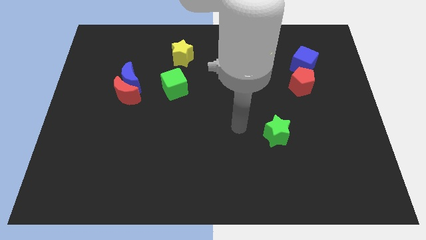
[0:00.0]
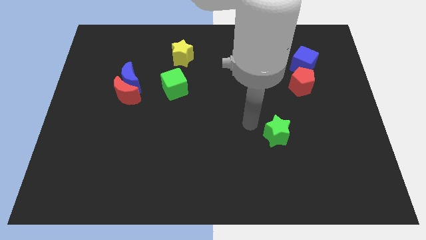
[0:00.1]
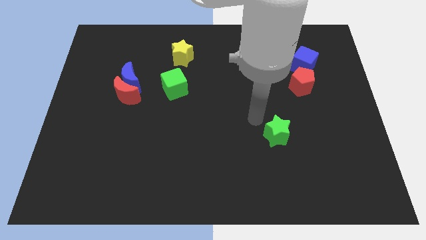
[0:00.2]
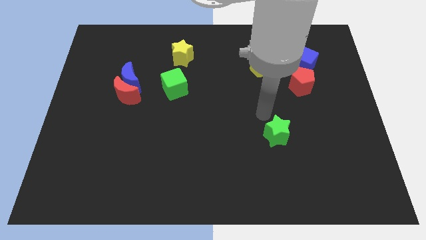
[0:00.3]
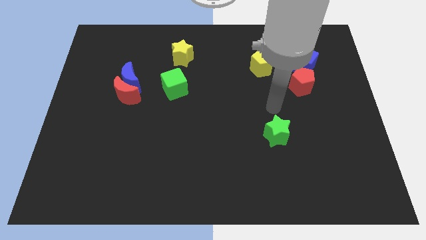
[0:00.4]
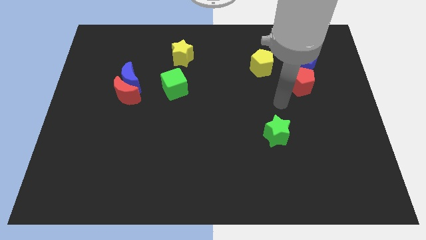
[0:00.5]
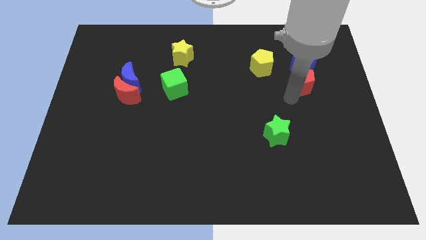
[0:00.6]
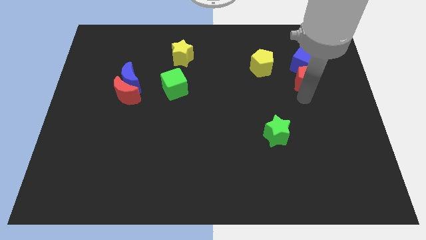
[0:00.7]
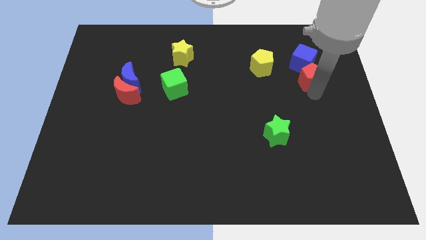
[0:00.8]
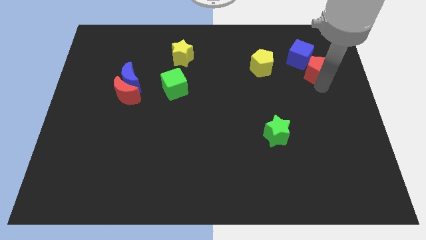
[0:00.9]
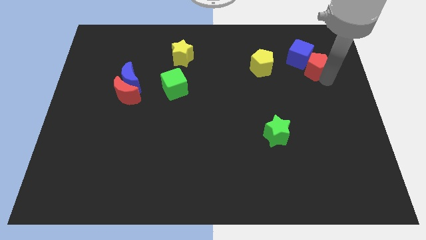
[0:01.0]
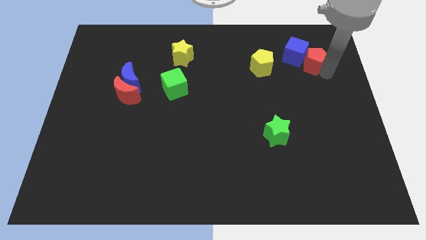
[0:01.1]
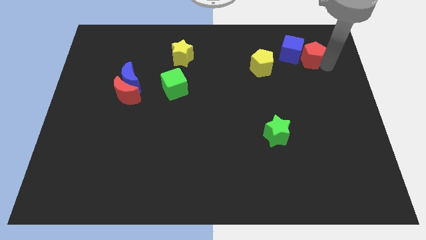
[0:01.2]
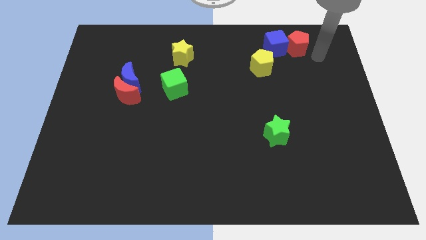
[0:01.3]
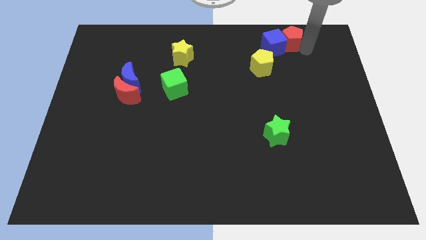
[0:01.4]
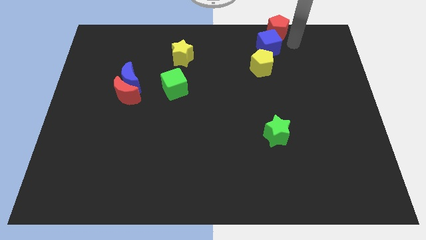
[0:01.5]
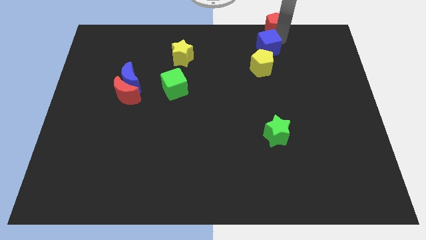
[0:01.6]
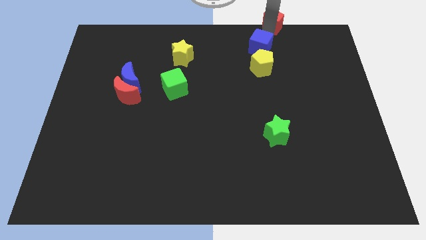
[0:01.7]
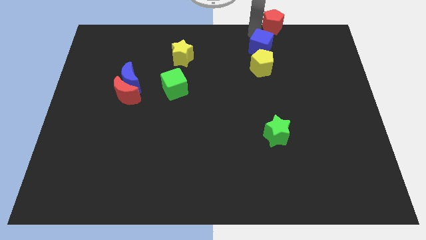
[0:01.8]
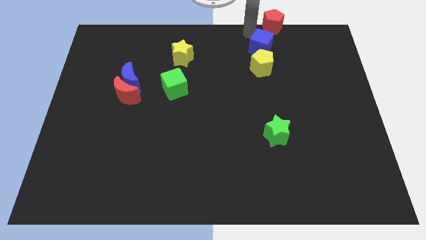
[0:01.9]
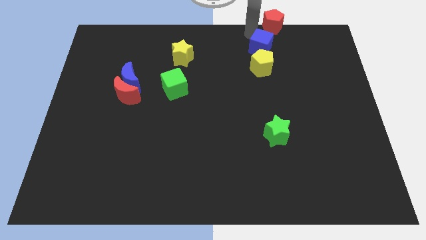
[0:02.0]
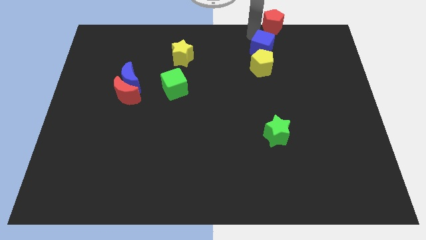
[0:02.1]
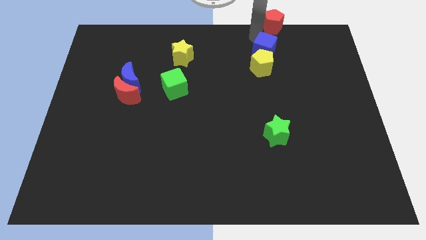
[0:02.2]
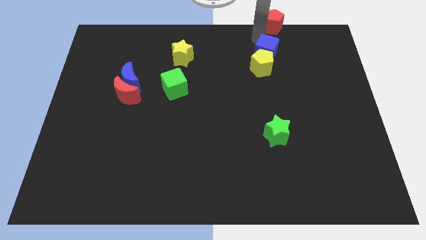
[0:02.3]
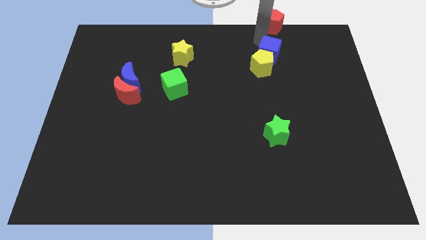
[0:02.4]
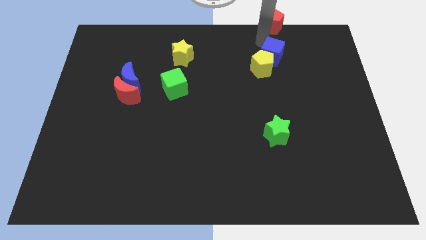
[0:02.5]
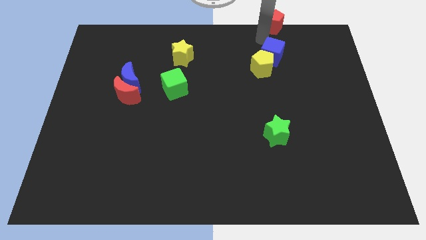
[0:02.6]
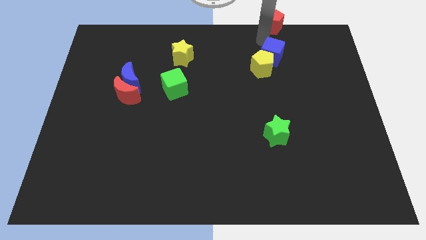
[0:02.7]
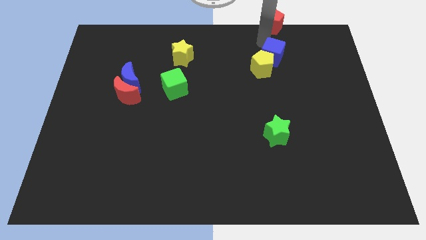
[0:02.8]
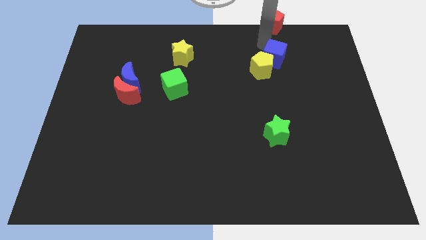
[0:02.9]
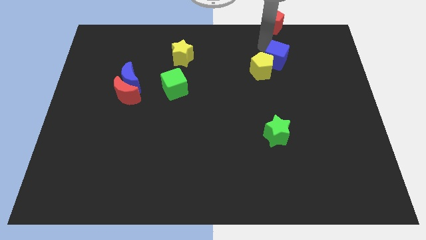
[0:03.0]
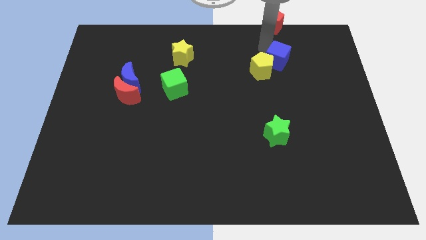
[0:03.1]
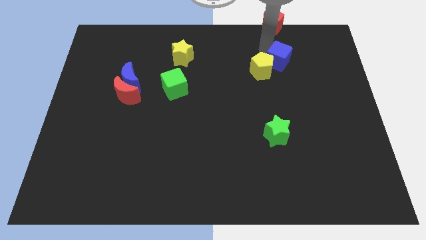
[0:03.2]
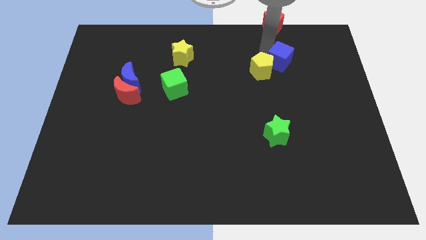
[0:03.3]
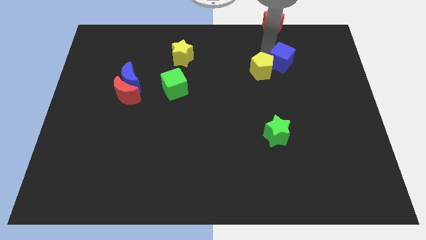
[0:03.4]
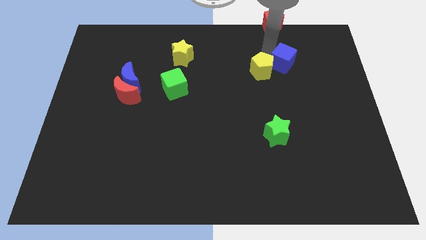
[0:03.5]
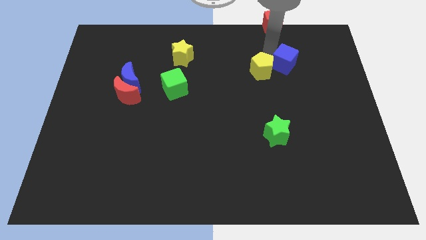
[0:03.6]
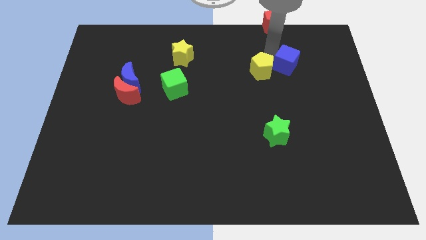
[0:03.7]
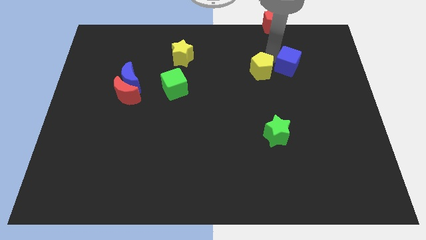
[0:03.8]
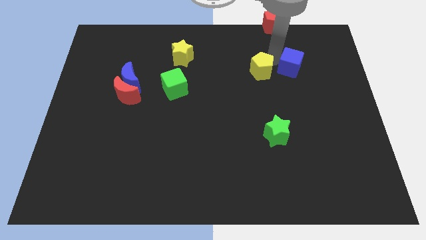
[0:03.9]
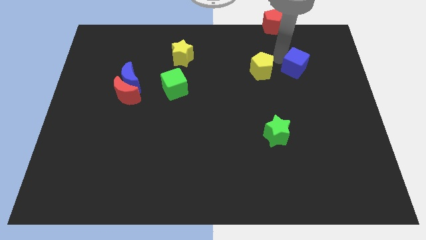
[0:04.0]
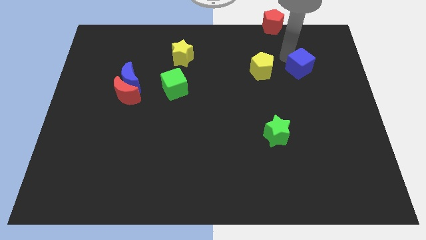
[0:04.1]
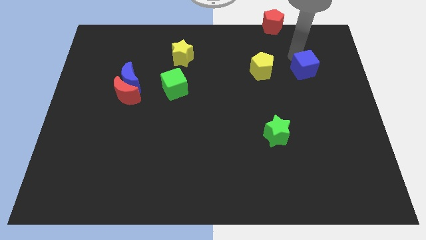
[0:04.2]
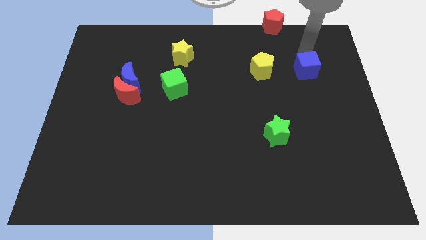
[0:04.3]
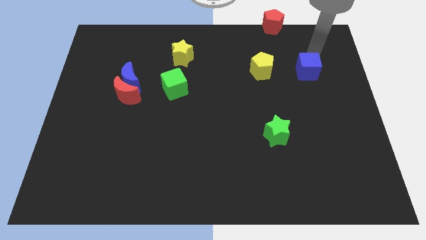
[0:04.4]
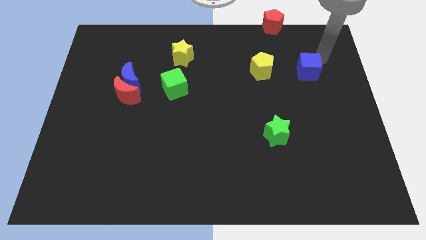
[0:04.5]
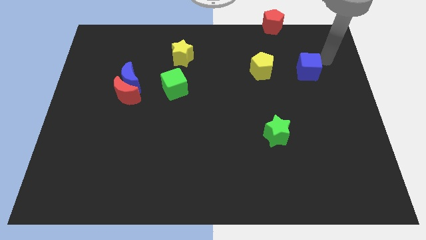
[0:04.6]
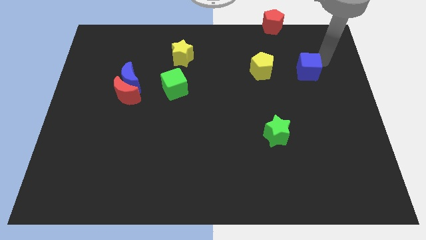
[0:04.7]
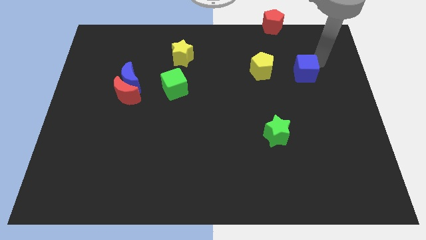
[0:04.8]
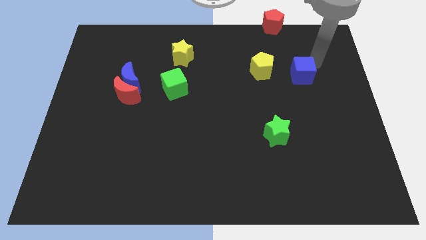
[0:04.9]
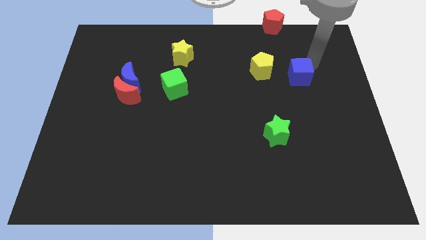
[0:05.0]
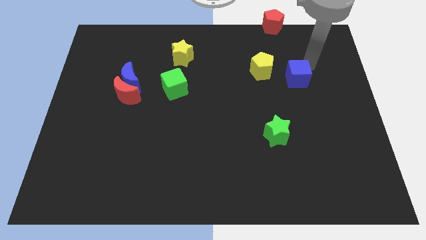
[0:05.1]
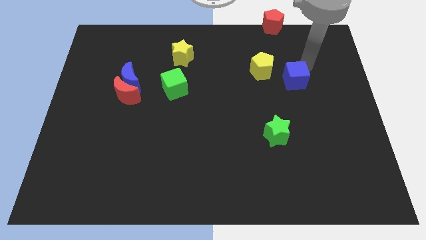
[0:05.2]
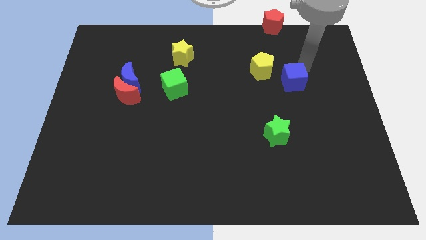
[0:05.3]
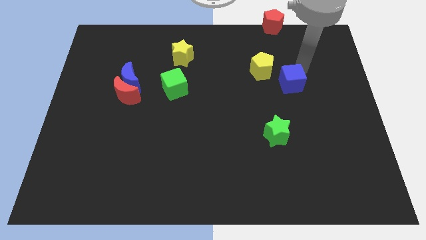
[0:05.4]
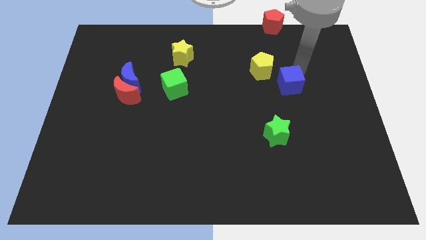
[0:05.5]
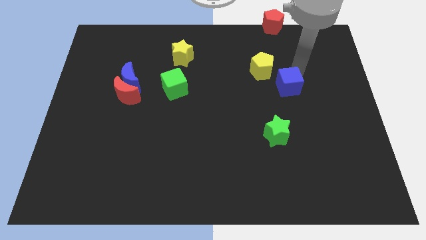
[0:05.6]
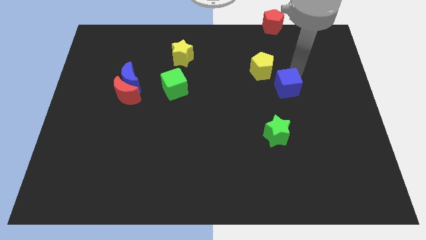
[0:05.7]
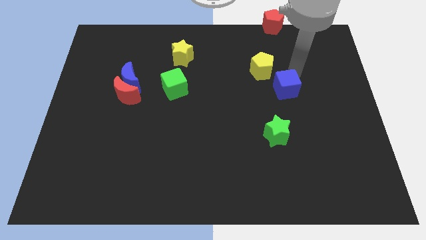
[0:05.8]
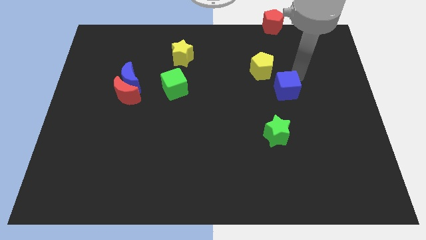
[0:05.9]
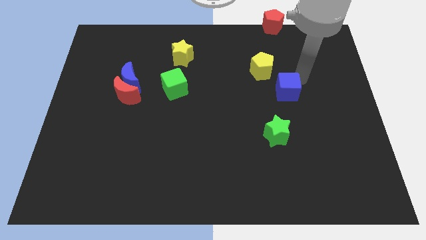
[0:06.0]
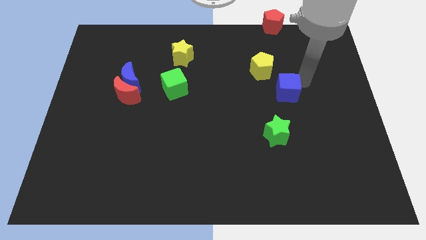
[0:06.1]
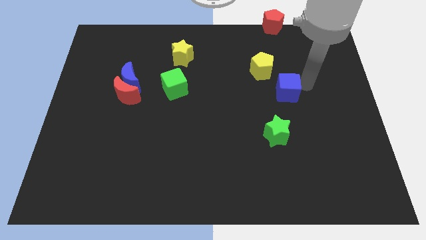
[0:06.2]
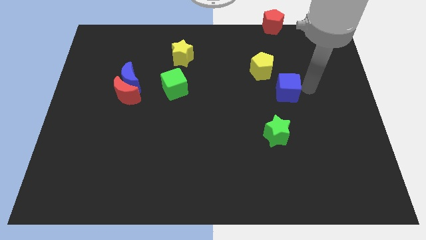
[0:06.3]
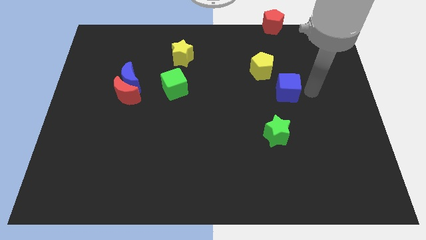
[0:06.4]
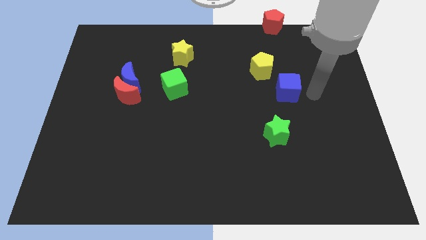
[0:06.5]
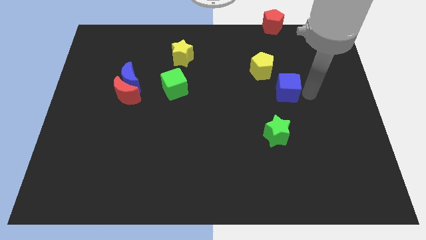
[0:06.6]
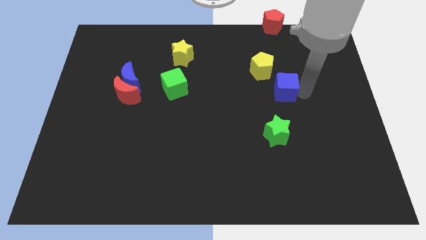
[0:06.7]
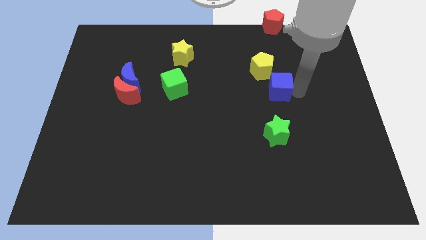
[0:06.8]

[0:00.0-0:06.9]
move the blue cube to the bottom of the yellow pentagon
